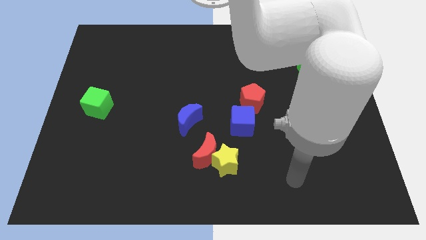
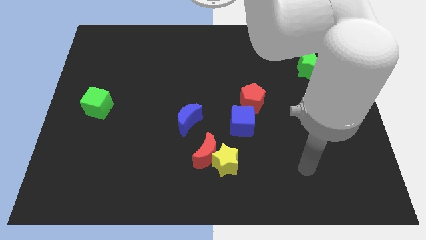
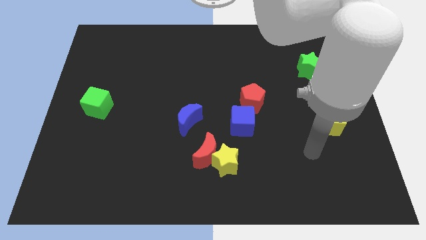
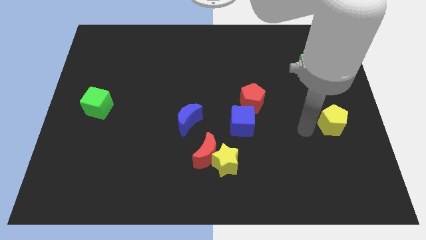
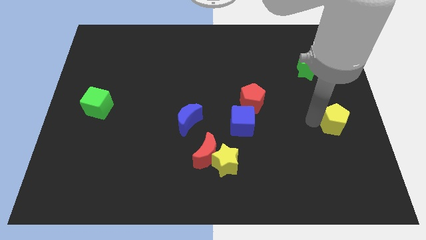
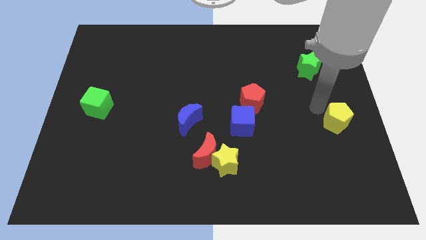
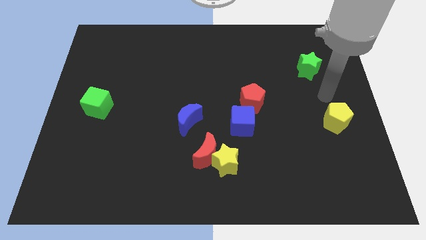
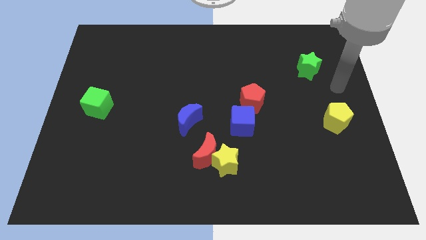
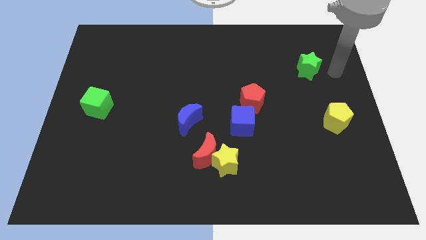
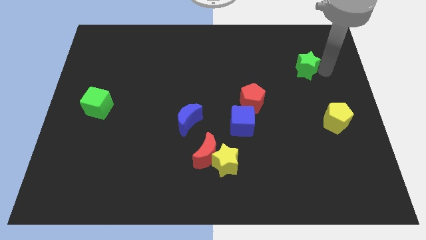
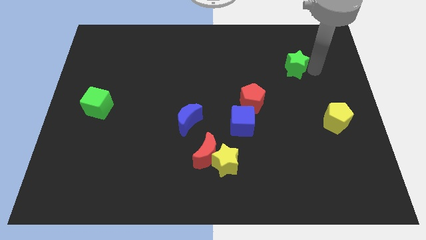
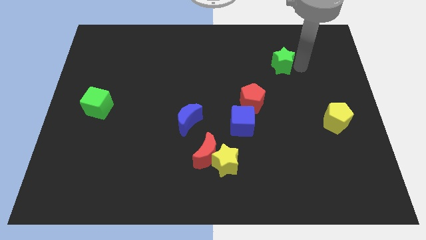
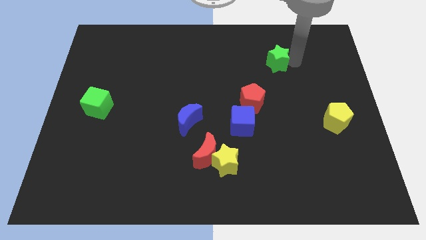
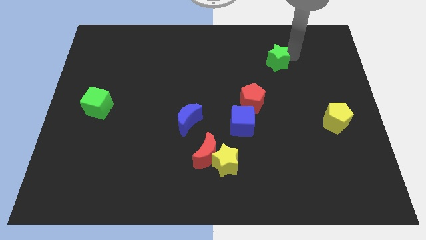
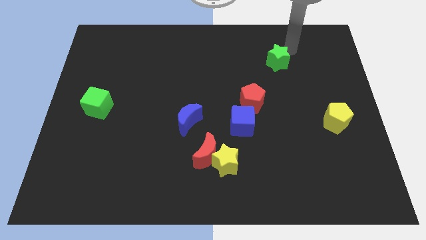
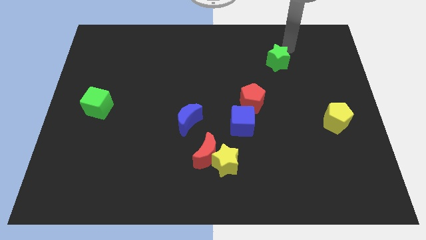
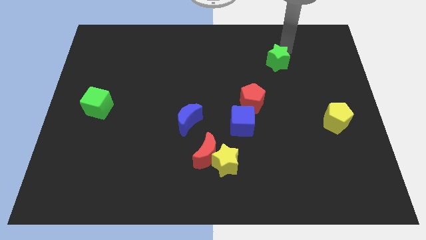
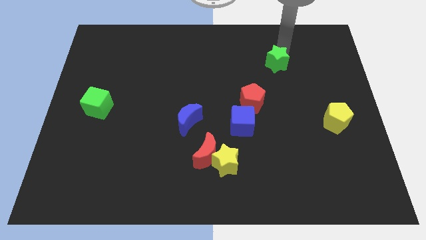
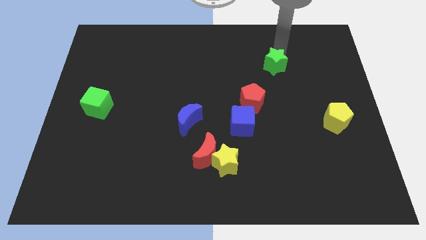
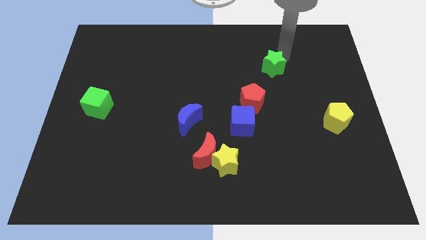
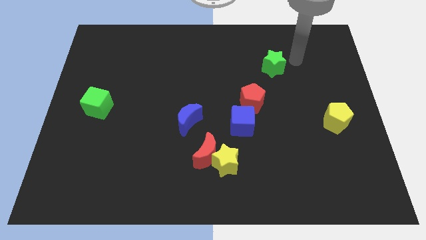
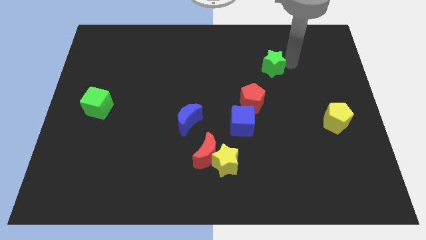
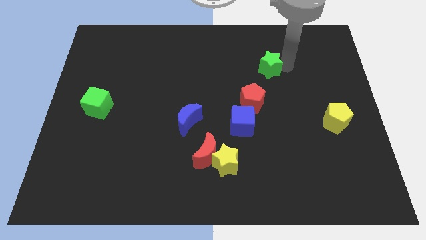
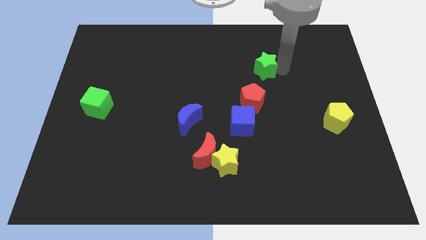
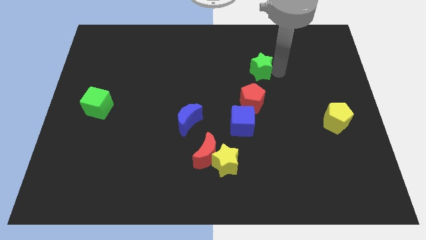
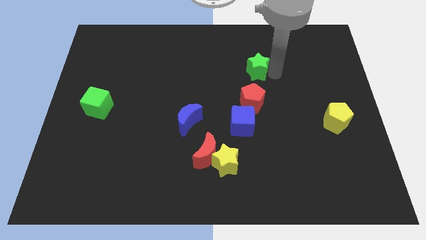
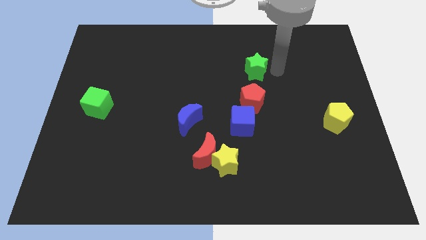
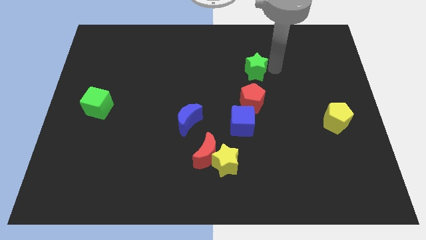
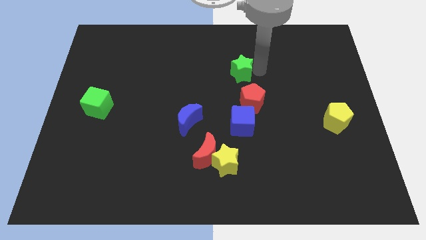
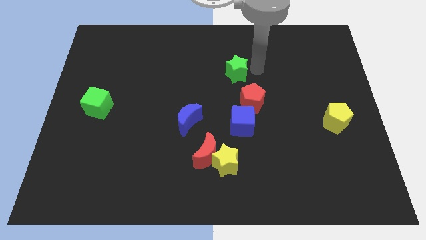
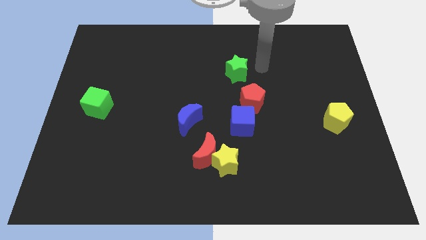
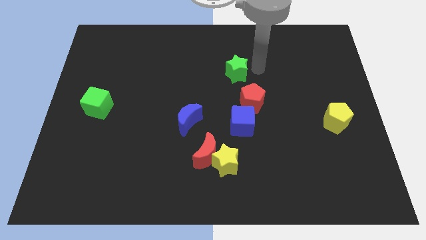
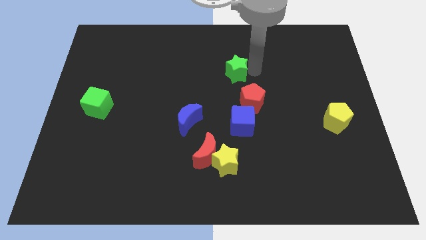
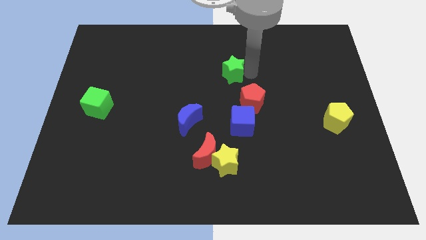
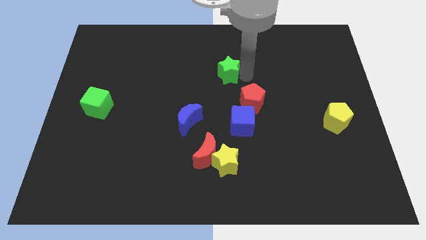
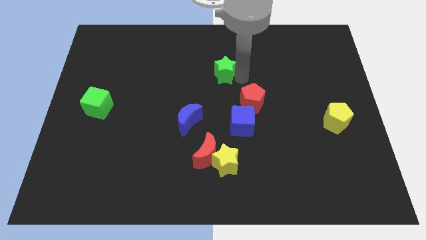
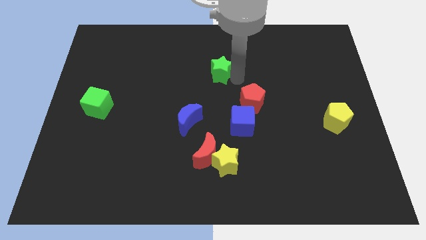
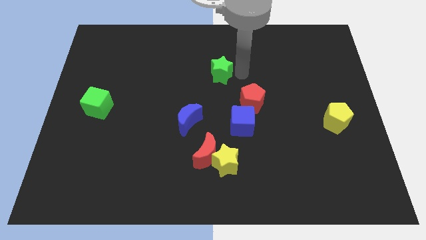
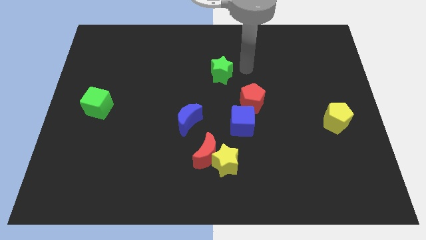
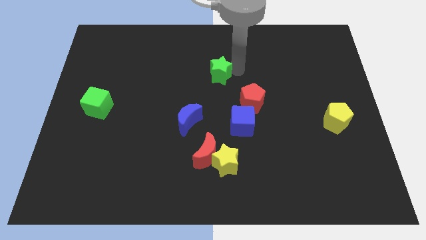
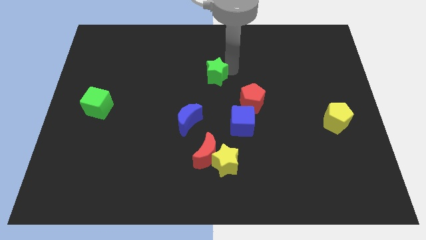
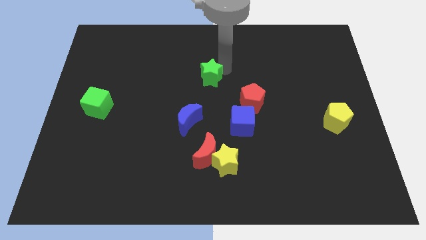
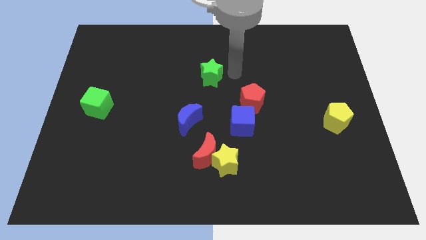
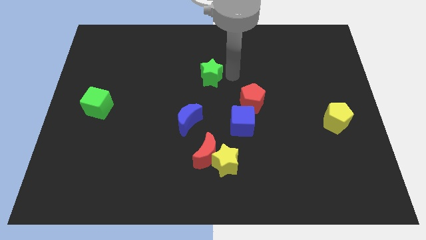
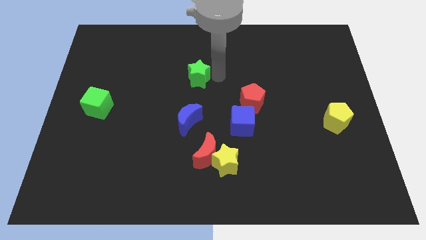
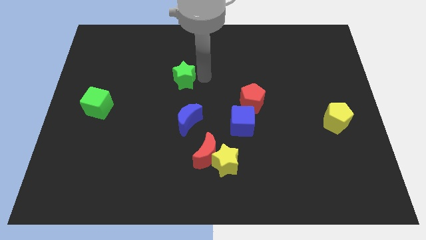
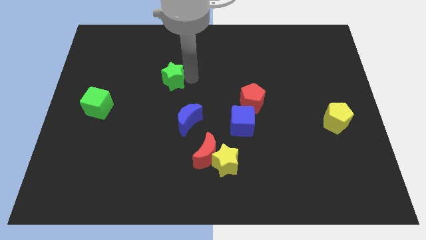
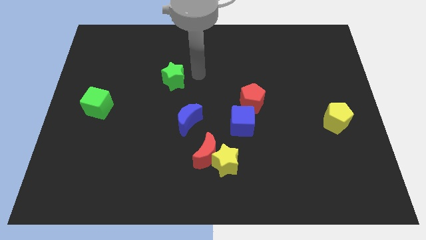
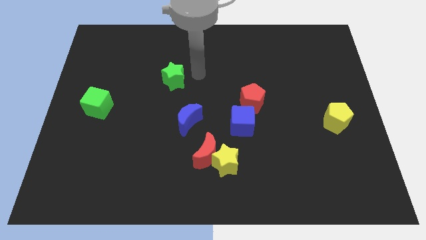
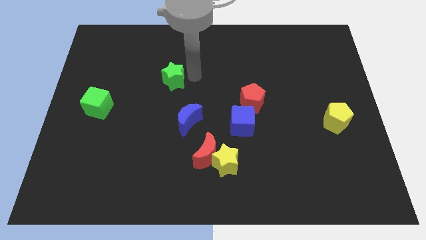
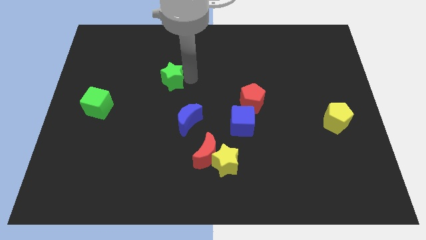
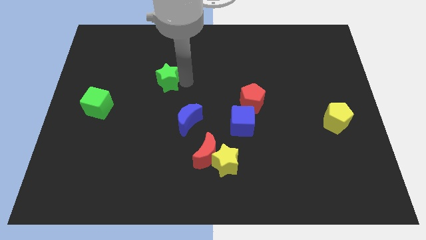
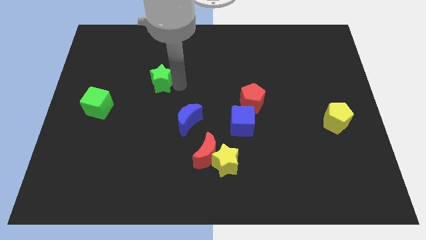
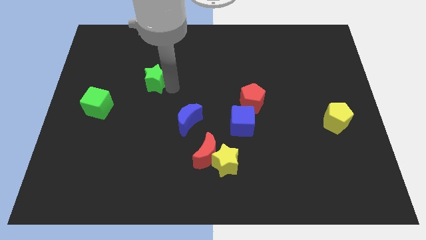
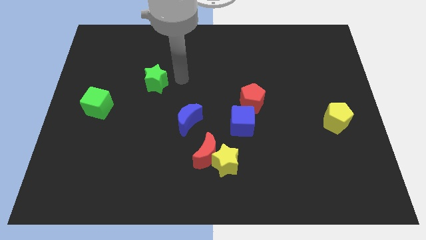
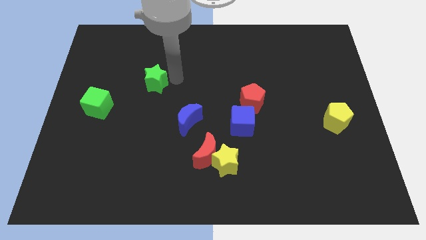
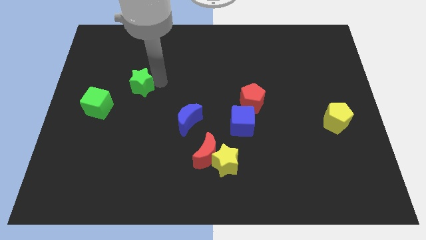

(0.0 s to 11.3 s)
move the green star diagonally up and to the right of the green cube

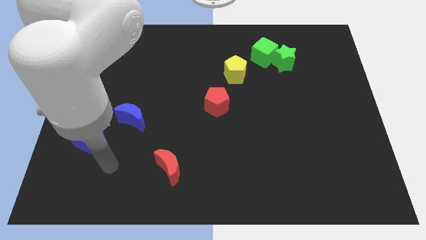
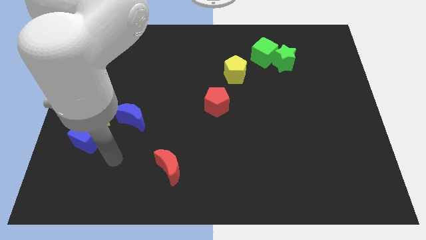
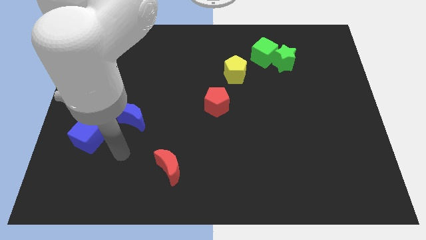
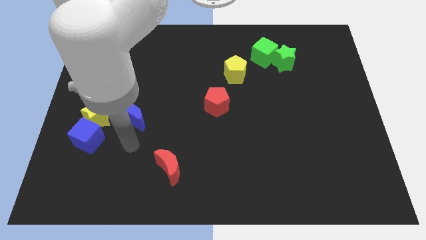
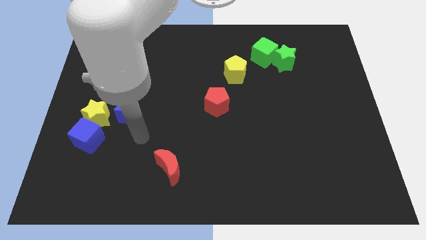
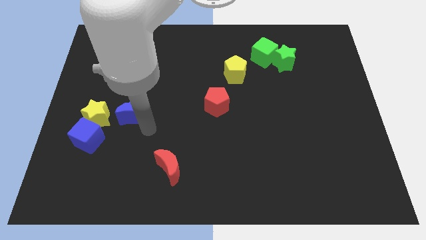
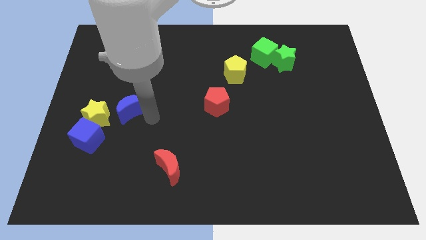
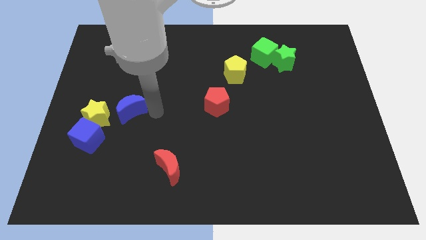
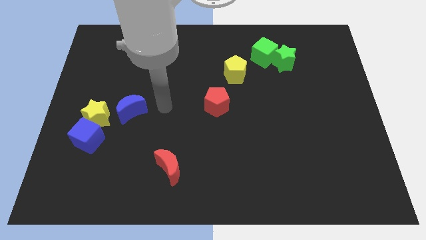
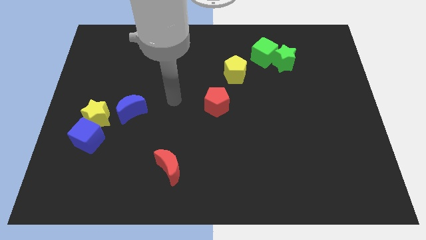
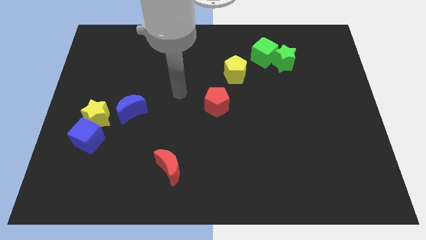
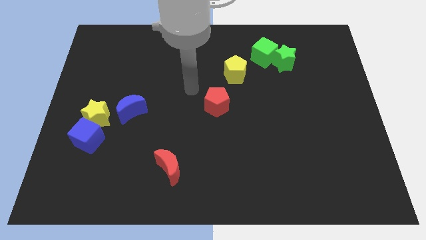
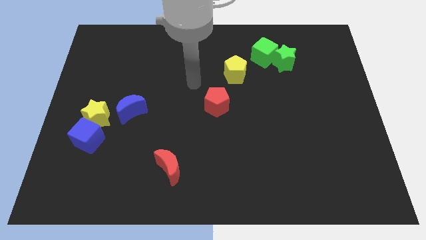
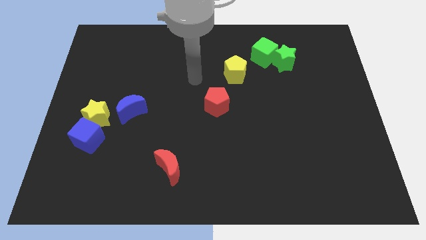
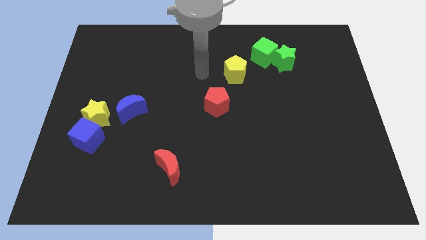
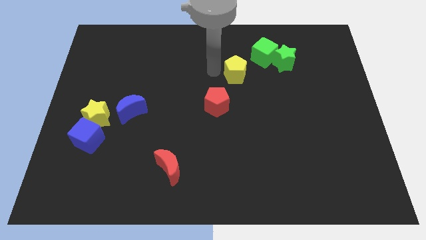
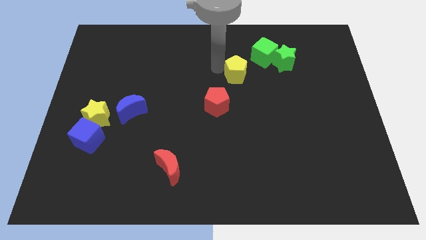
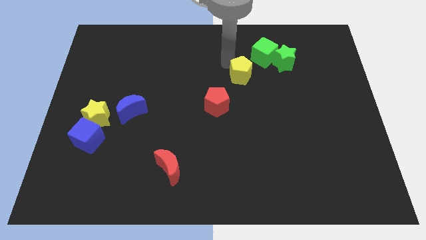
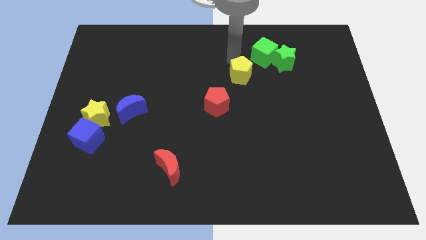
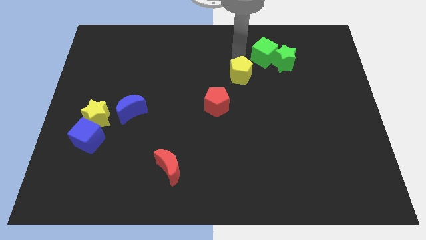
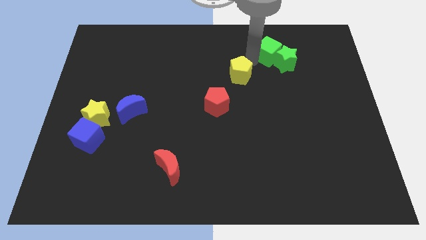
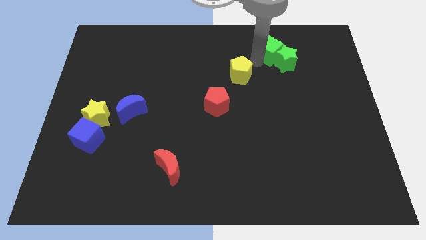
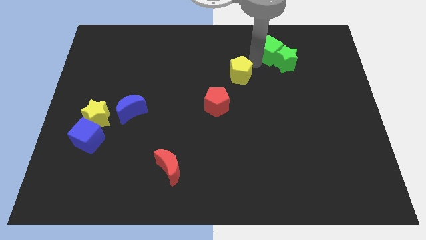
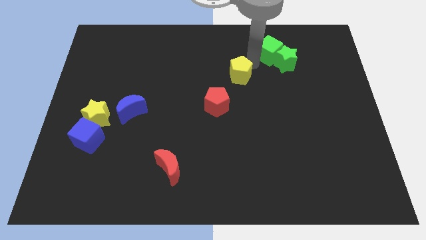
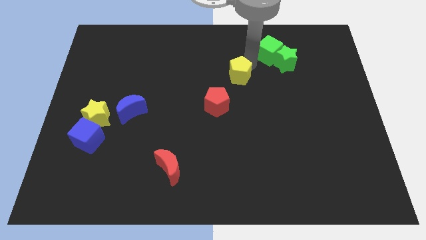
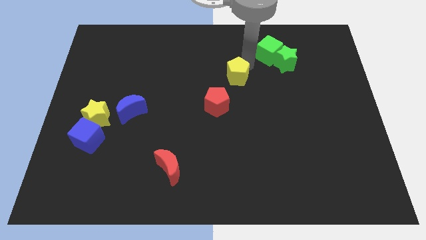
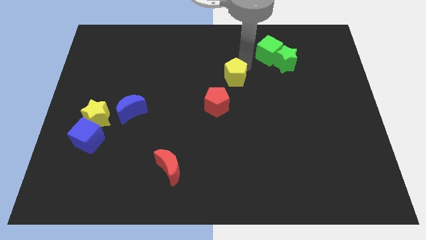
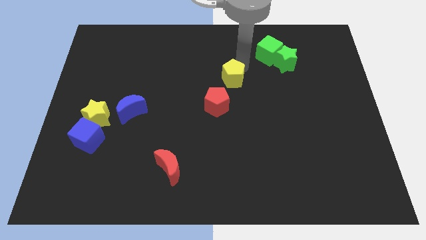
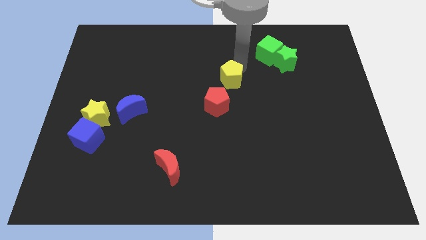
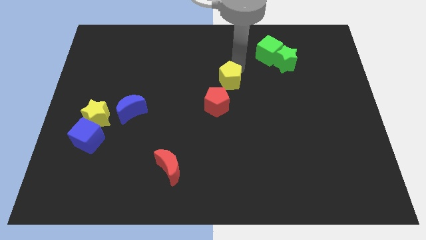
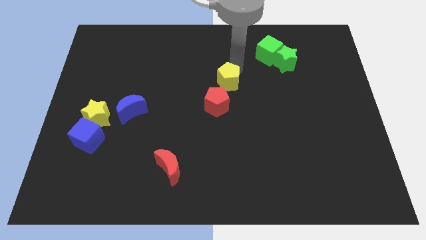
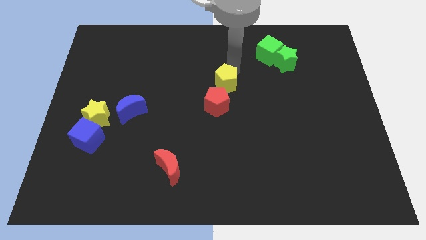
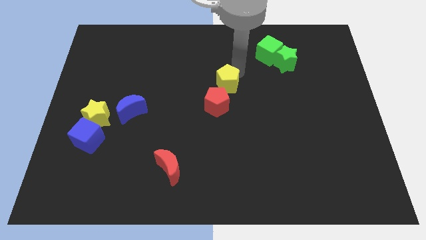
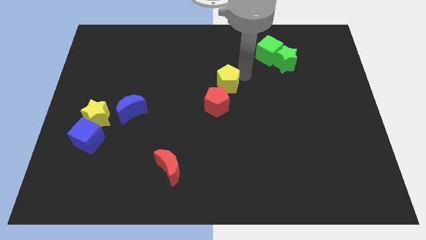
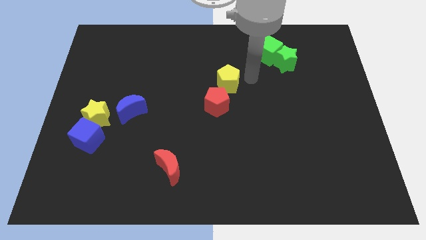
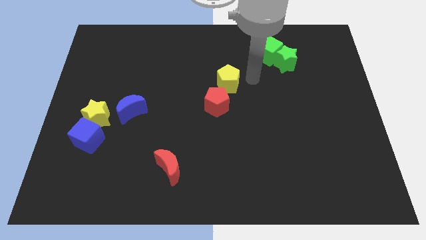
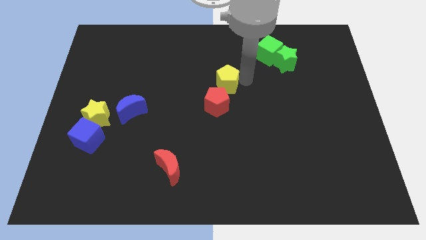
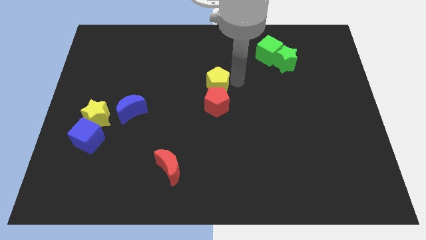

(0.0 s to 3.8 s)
push the yellow pentagon to the top left side of the red pentagon
